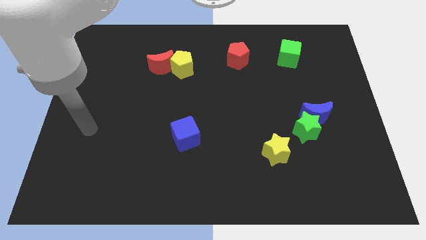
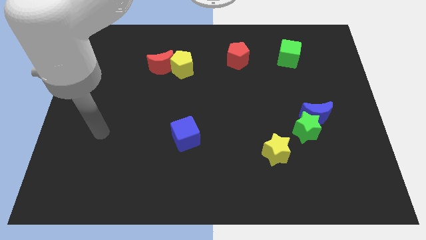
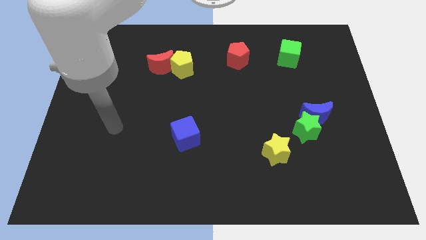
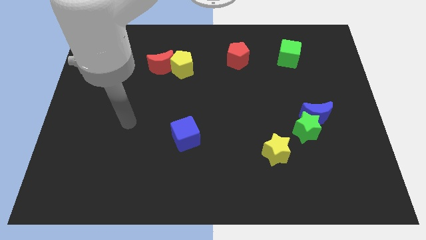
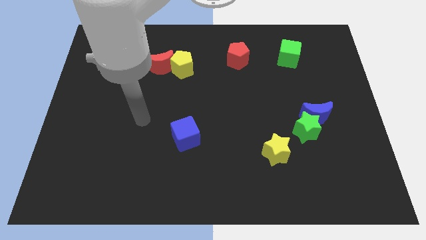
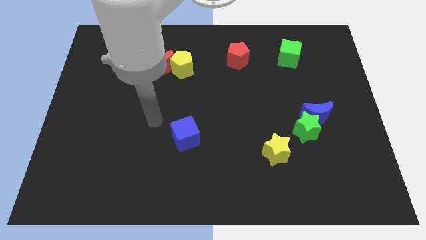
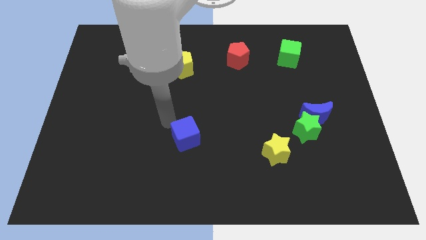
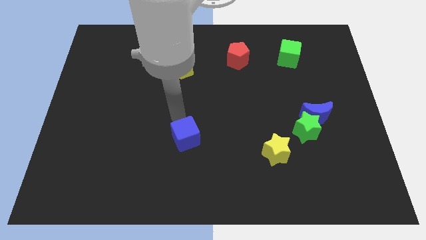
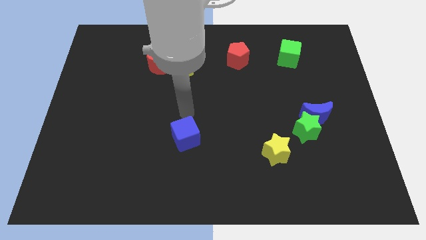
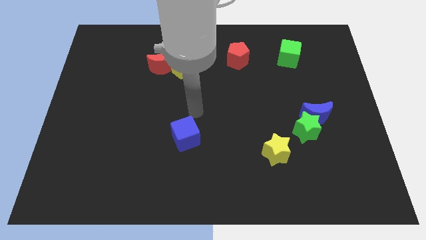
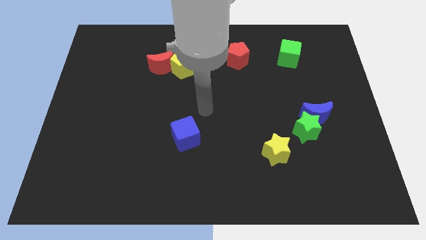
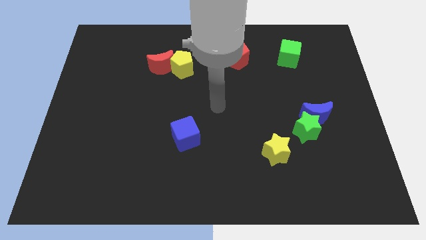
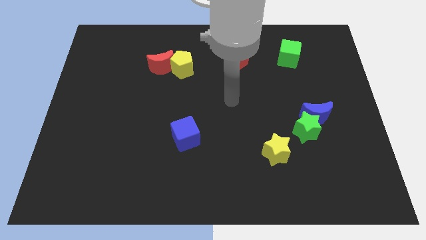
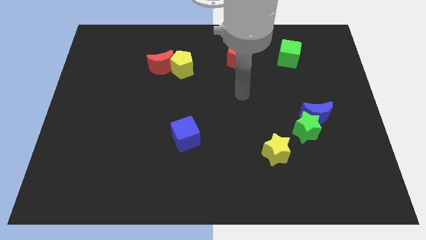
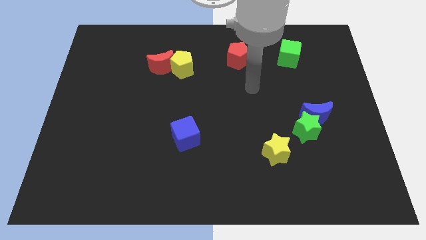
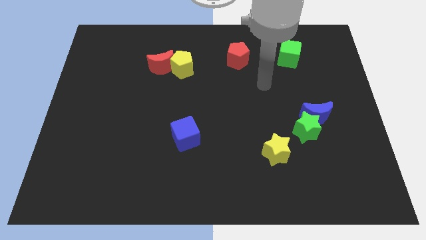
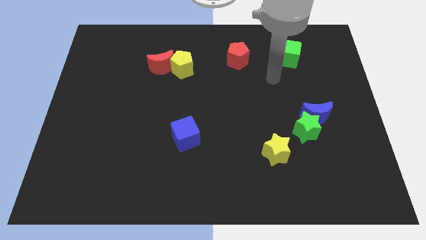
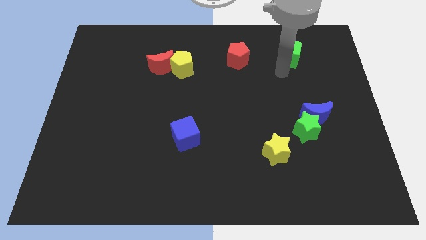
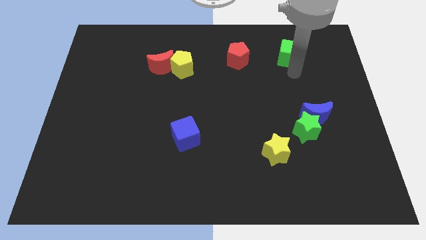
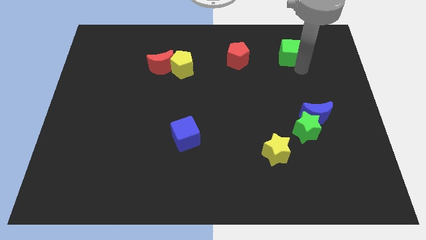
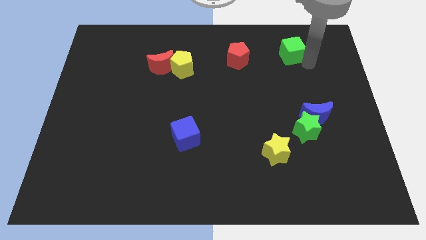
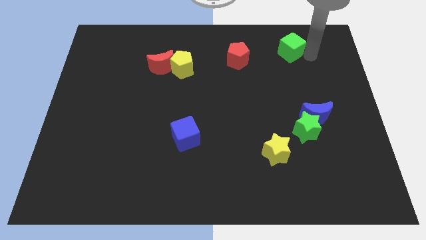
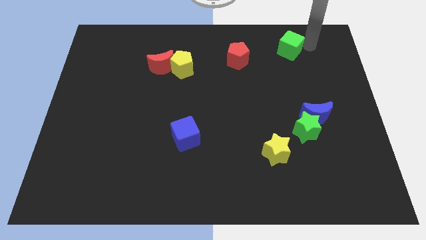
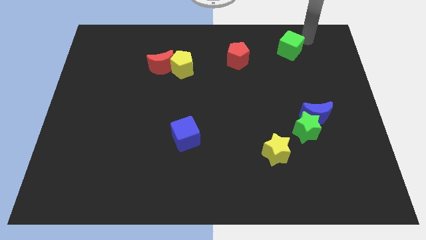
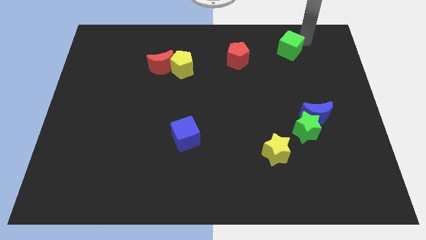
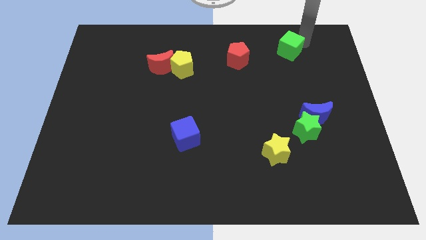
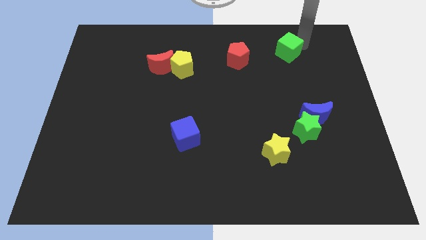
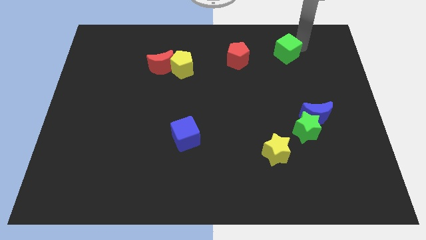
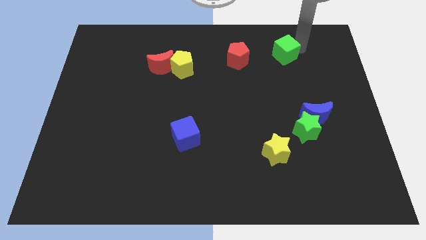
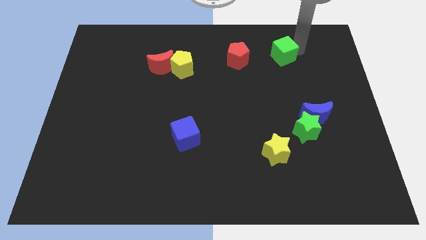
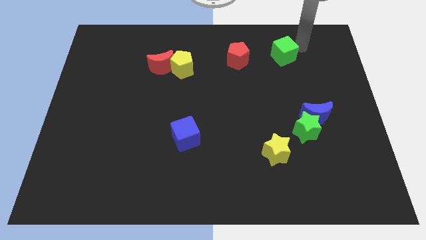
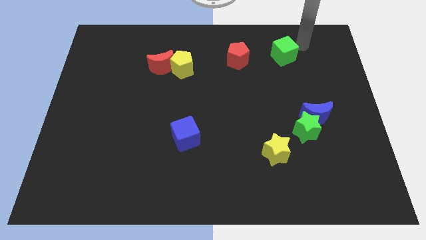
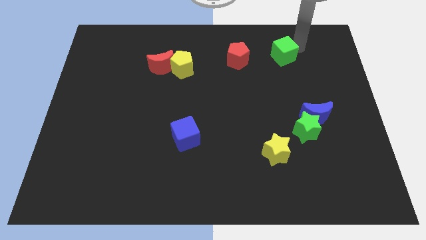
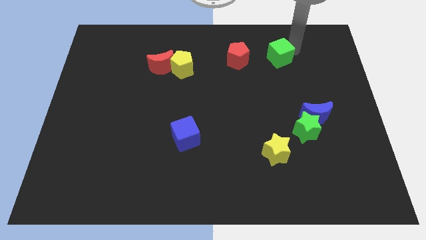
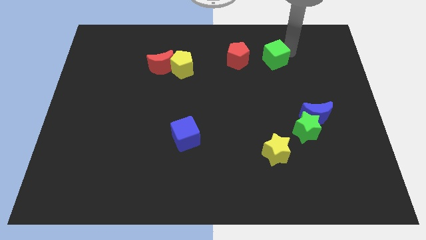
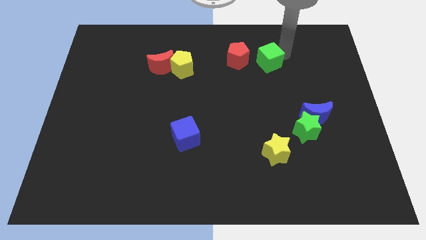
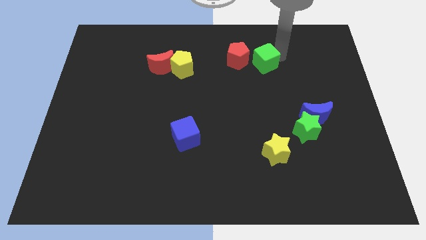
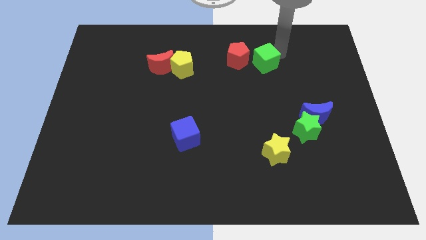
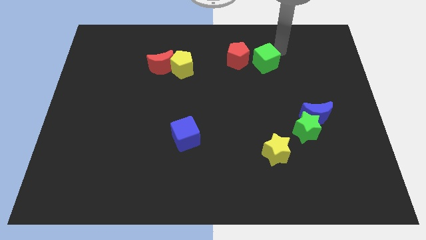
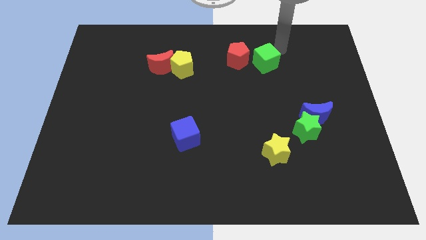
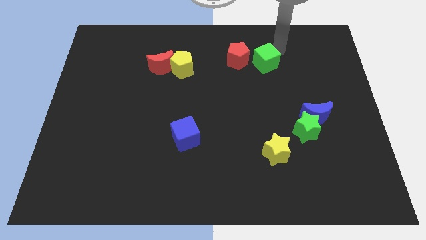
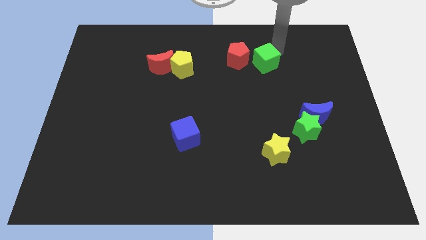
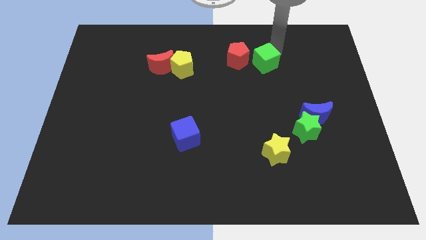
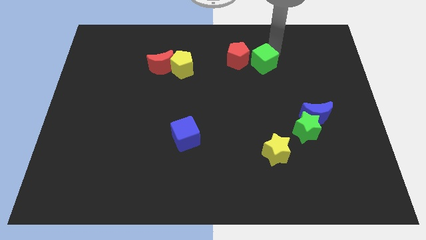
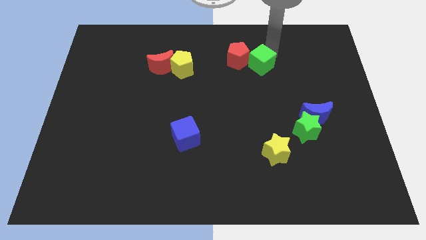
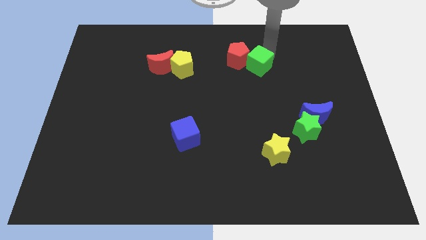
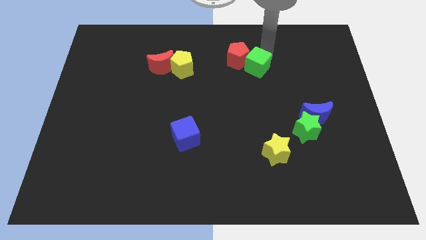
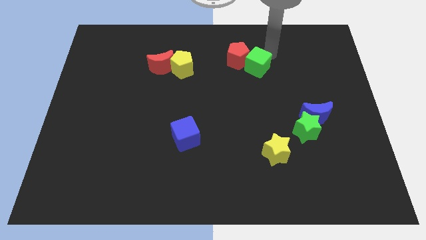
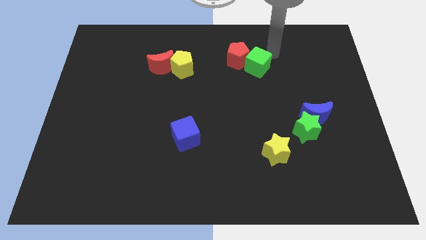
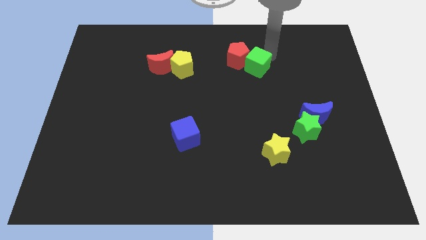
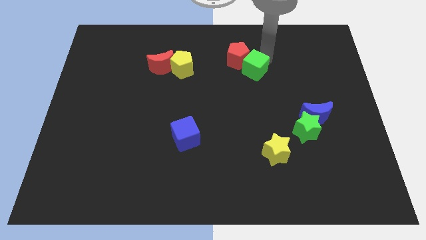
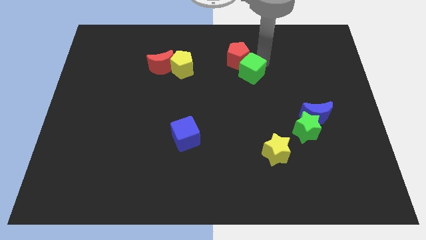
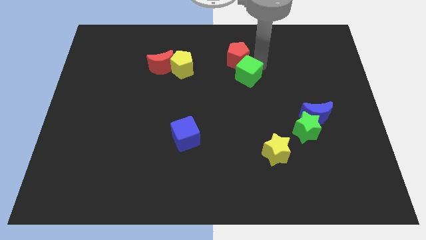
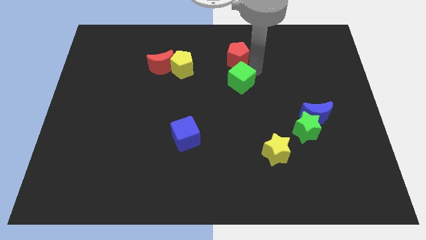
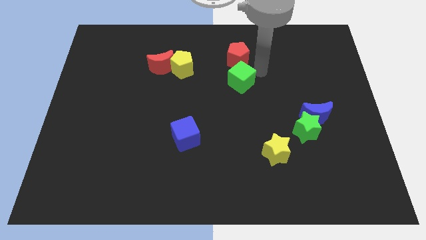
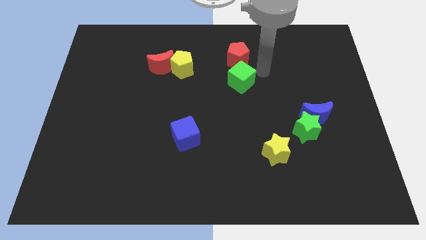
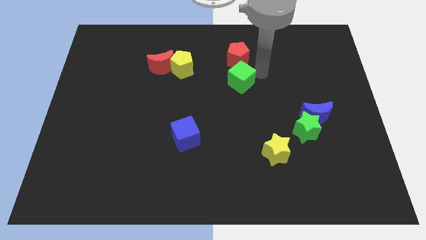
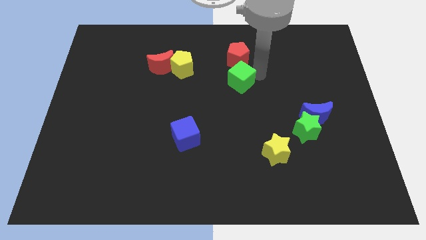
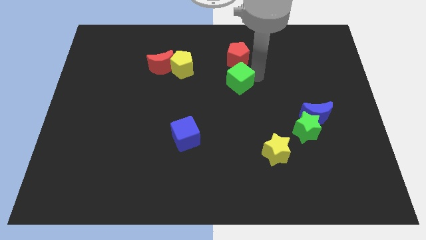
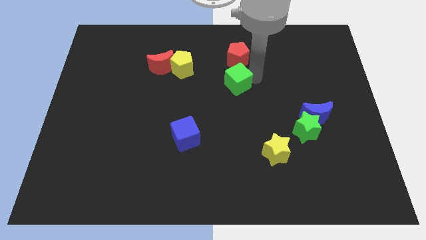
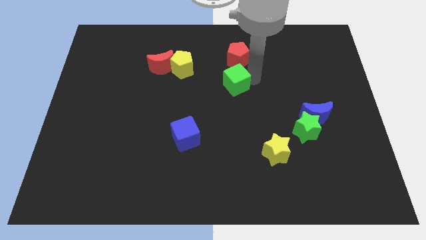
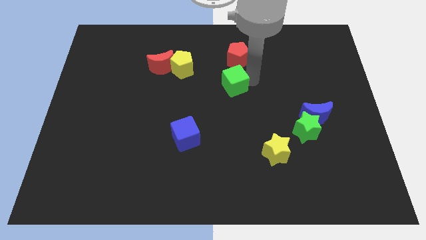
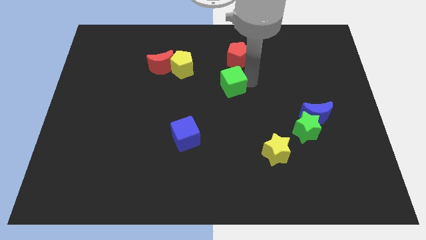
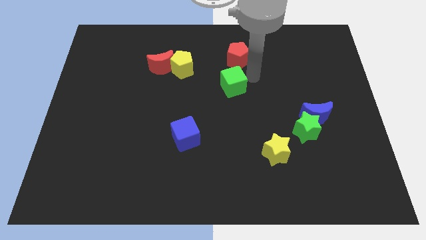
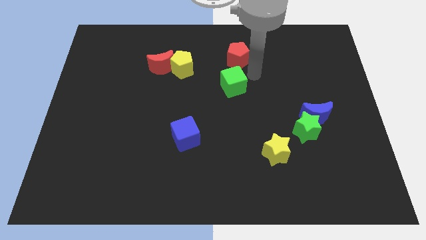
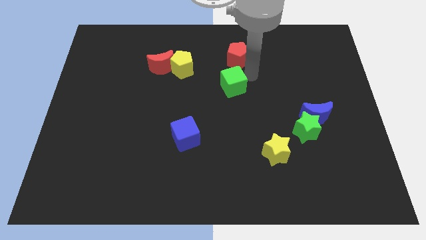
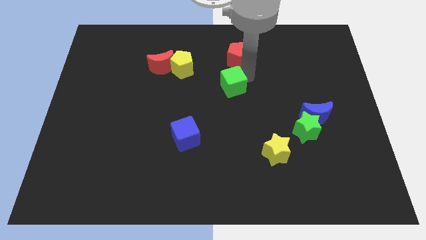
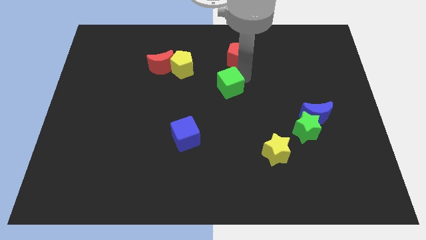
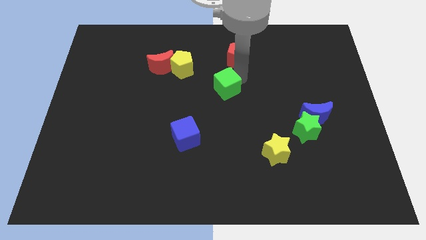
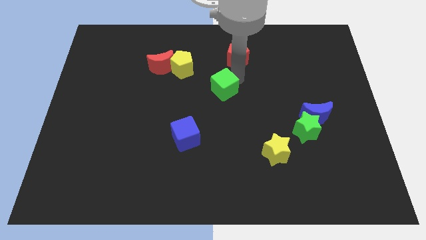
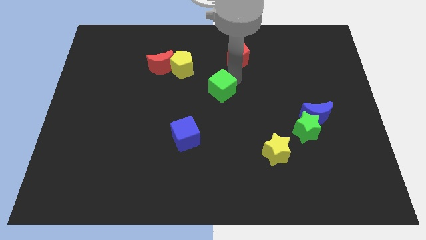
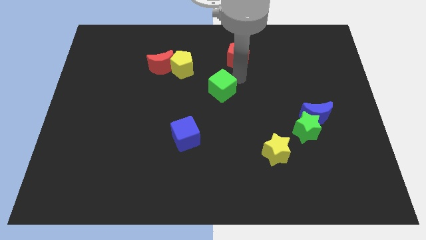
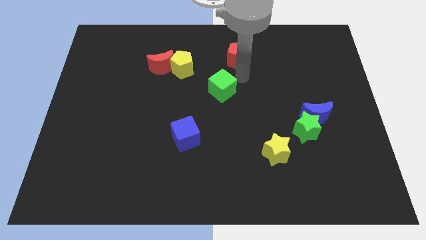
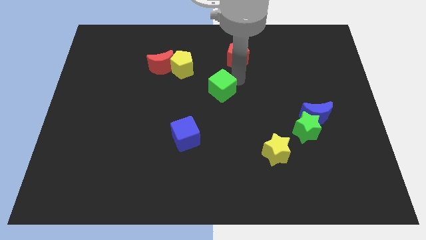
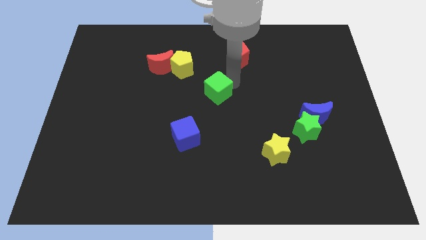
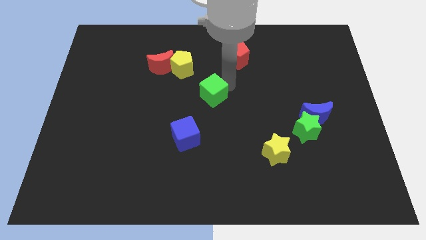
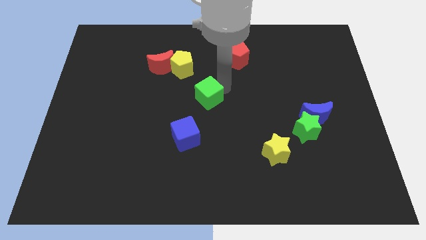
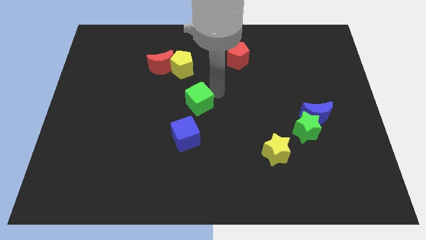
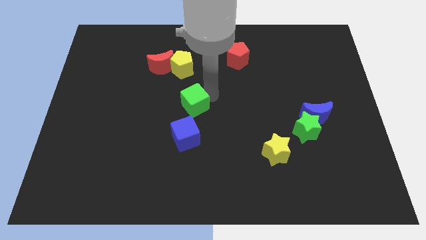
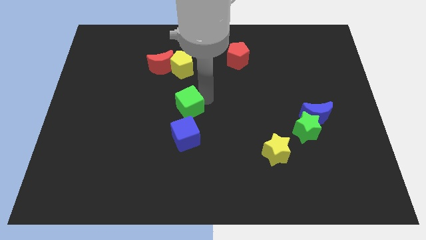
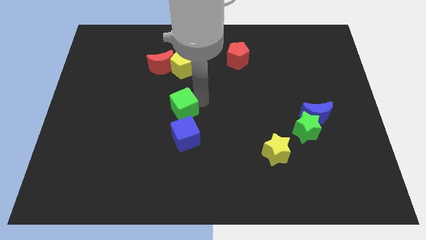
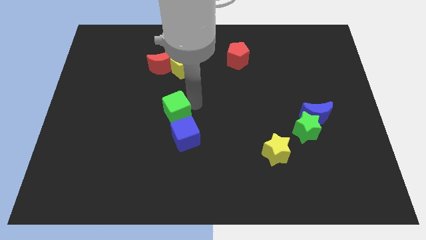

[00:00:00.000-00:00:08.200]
move the green cube to the top left of the blue cube
